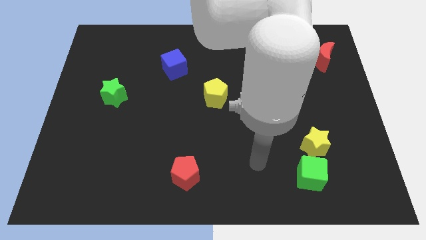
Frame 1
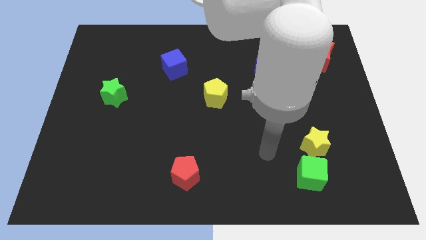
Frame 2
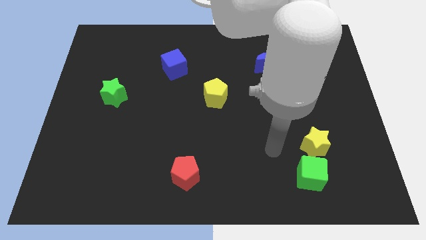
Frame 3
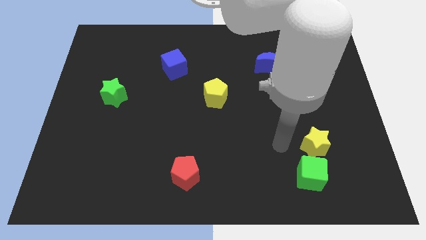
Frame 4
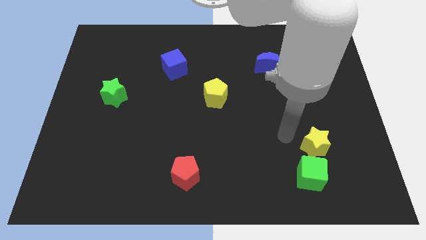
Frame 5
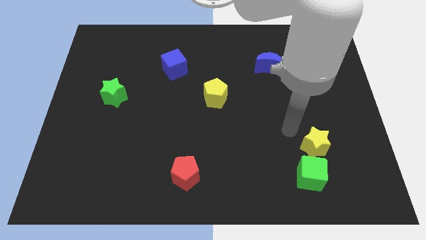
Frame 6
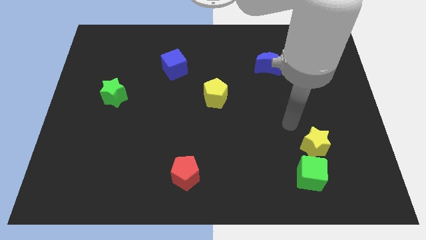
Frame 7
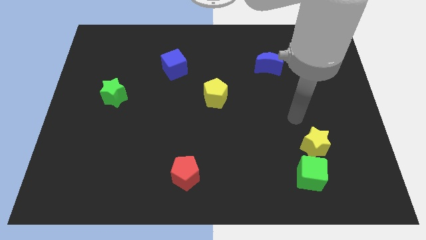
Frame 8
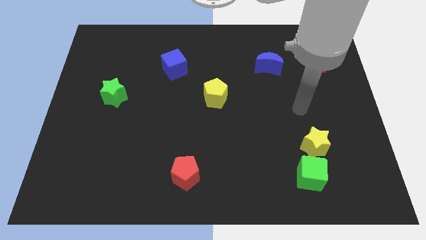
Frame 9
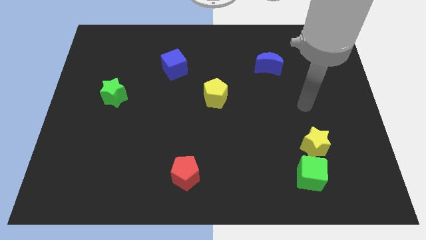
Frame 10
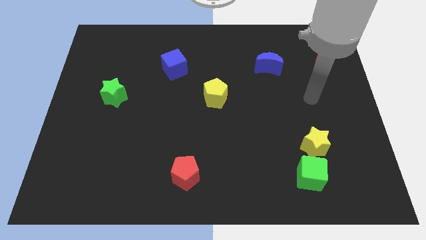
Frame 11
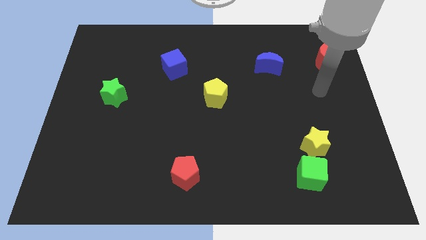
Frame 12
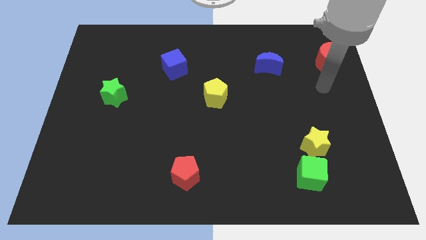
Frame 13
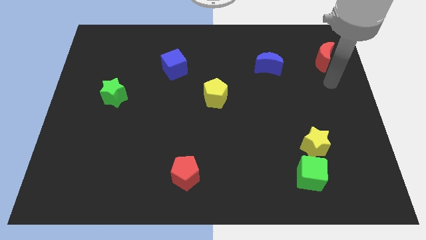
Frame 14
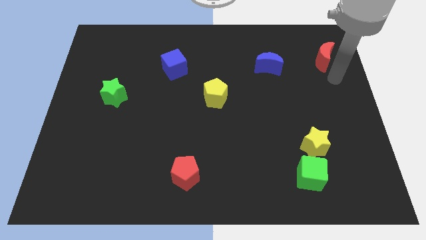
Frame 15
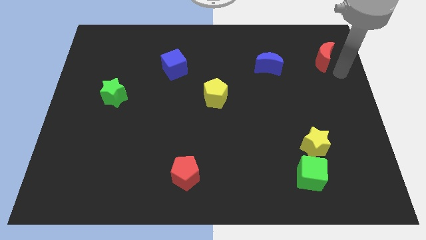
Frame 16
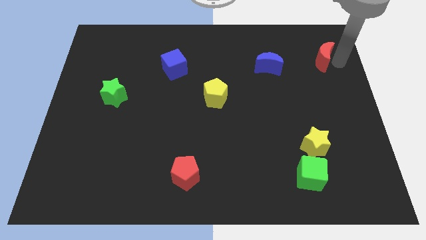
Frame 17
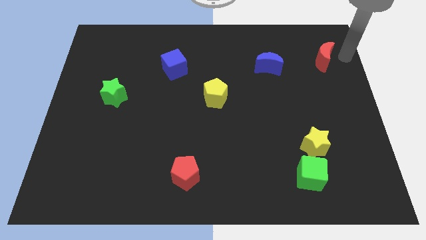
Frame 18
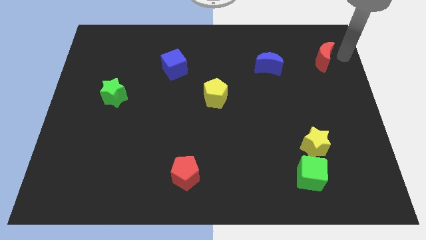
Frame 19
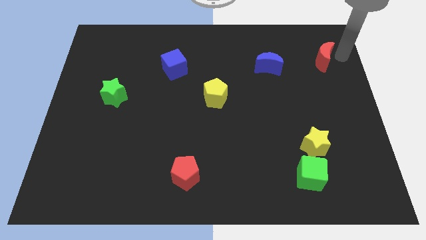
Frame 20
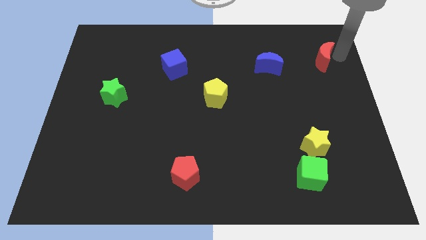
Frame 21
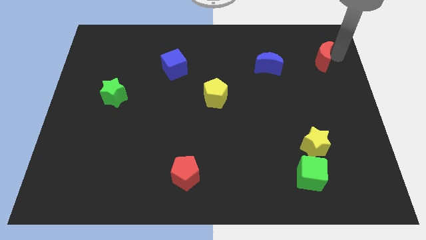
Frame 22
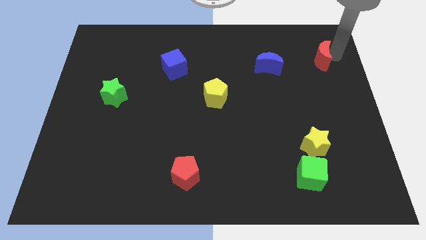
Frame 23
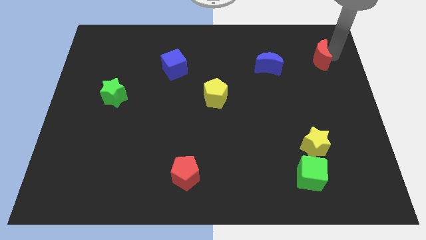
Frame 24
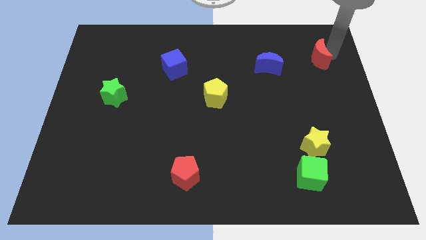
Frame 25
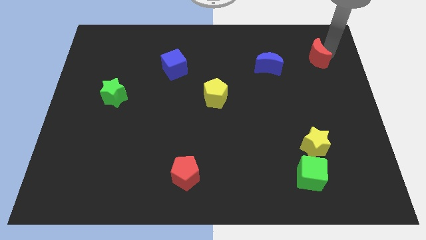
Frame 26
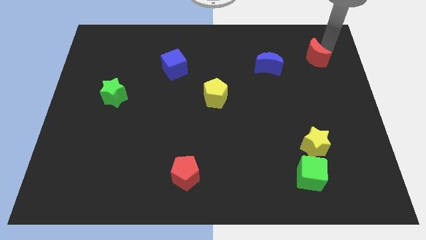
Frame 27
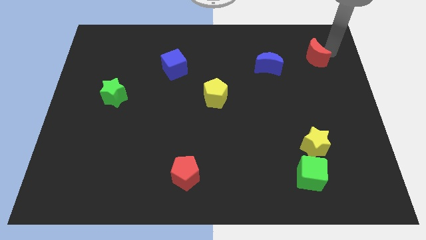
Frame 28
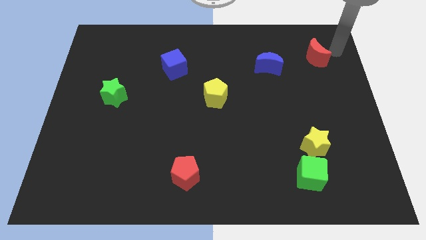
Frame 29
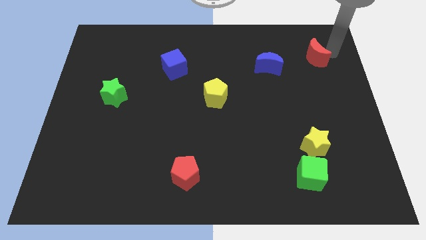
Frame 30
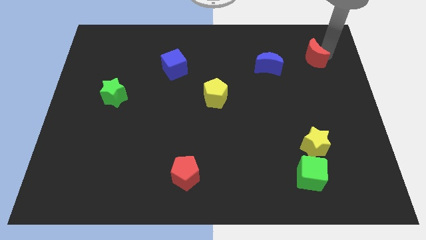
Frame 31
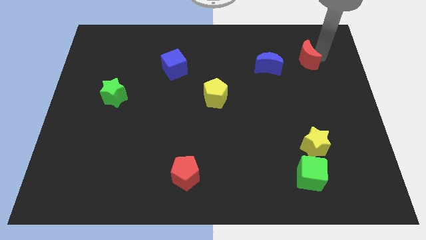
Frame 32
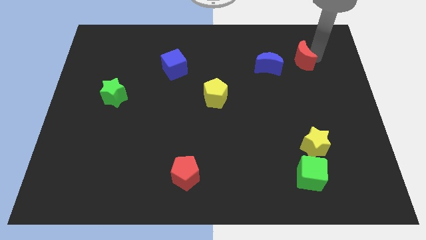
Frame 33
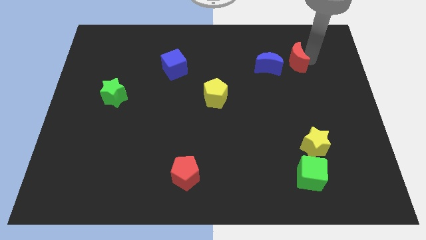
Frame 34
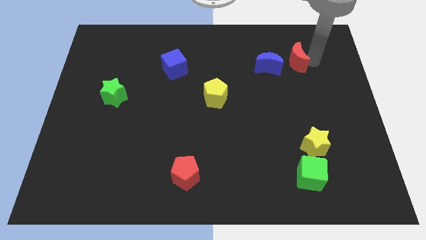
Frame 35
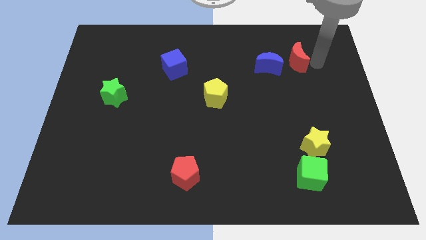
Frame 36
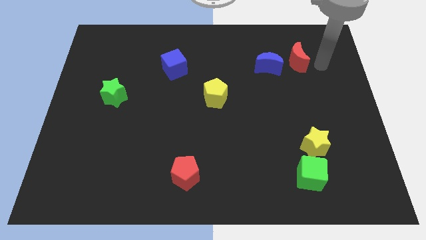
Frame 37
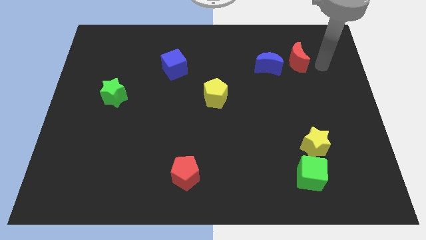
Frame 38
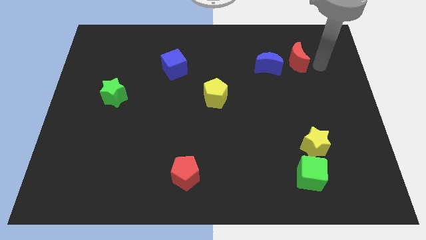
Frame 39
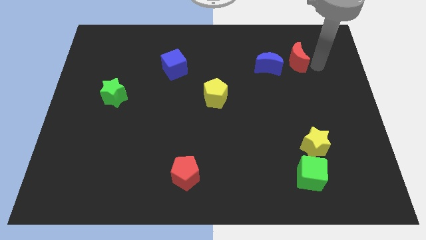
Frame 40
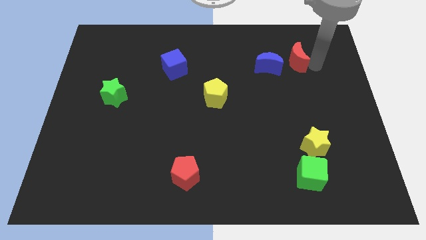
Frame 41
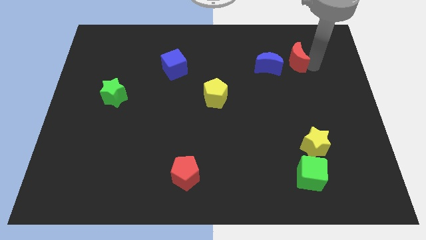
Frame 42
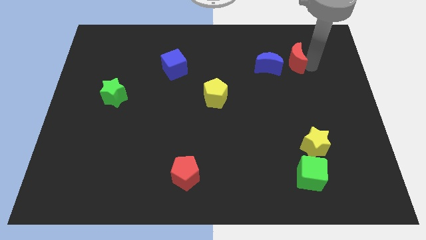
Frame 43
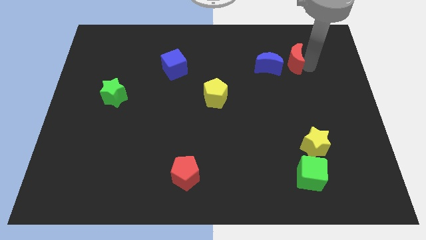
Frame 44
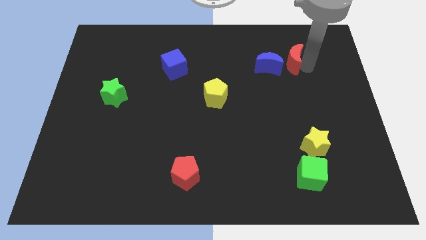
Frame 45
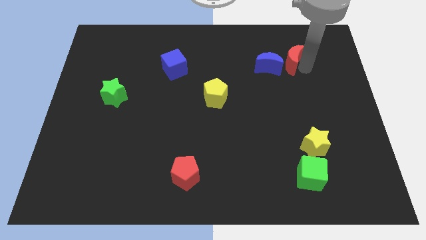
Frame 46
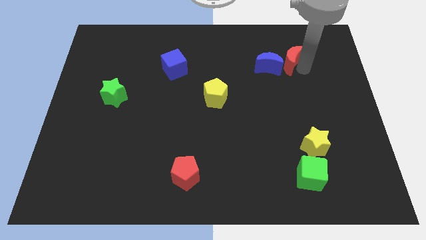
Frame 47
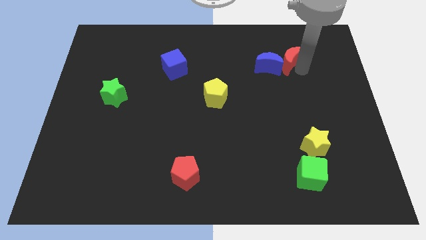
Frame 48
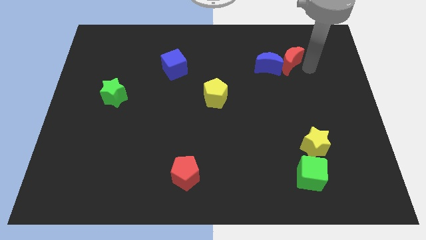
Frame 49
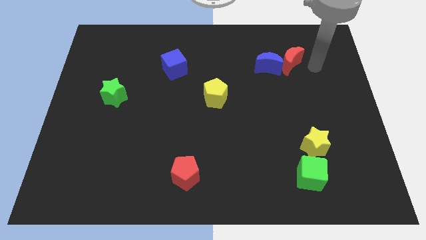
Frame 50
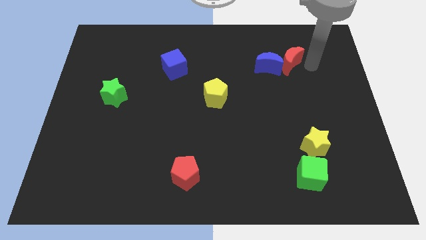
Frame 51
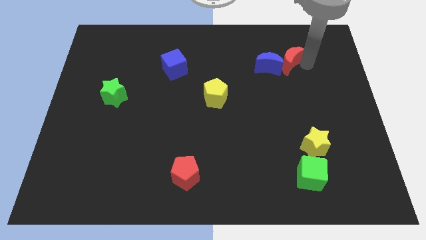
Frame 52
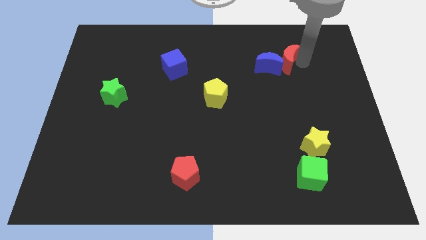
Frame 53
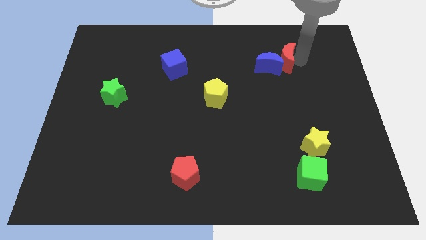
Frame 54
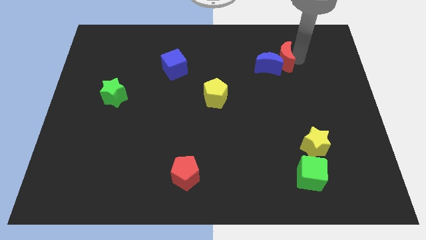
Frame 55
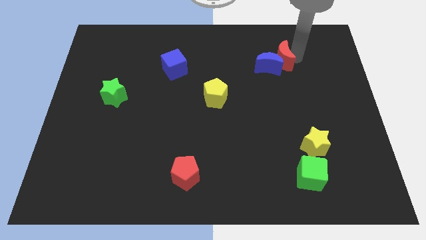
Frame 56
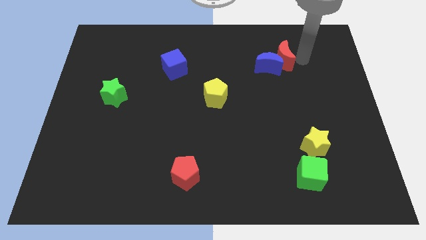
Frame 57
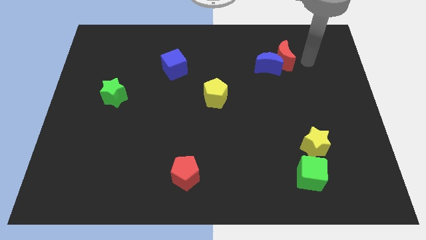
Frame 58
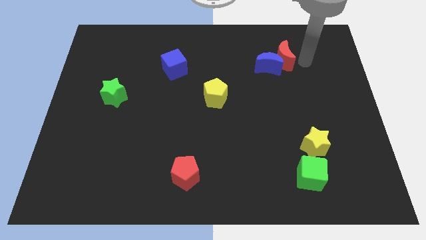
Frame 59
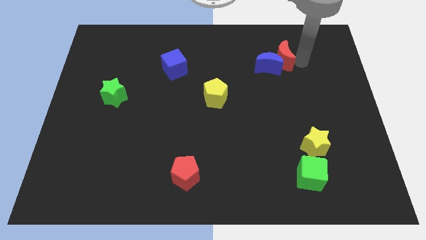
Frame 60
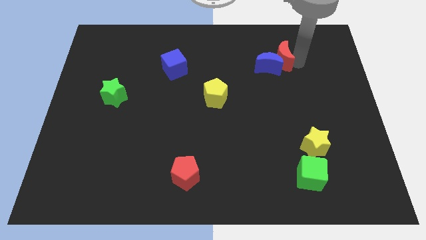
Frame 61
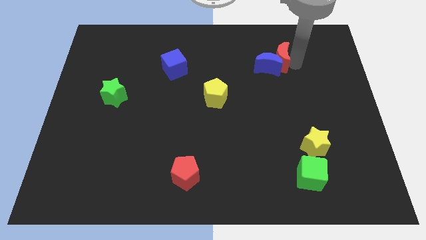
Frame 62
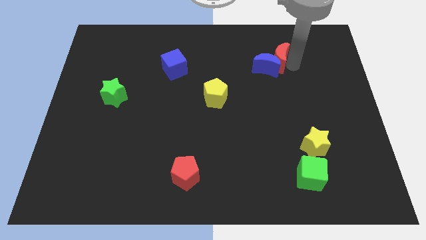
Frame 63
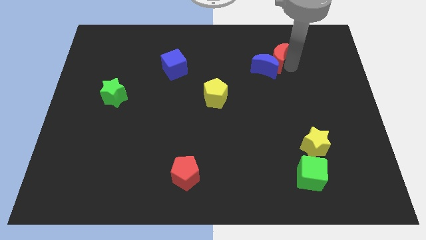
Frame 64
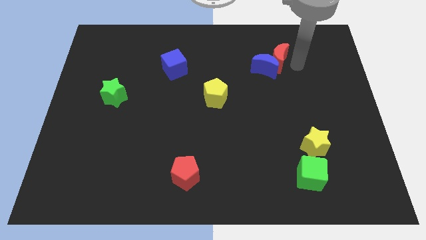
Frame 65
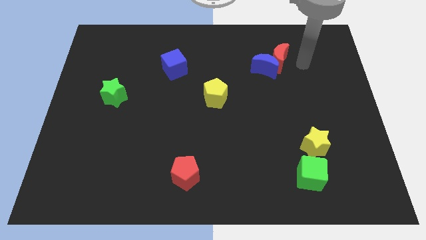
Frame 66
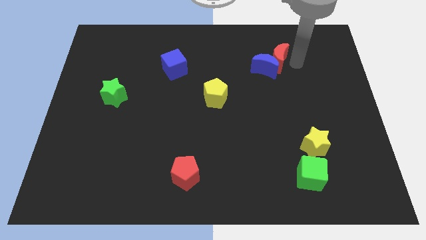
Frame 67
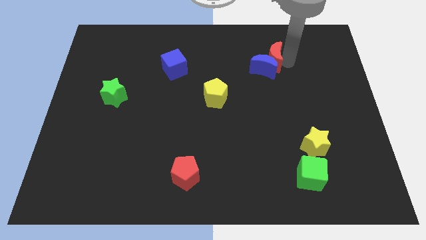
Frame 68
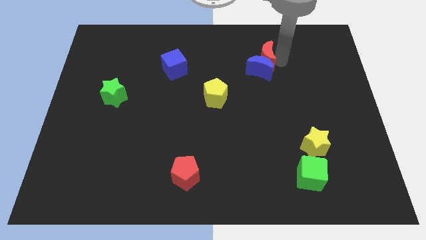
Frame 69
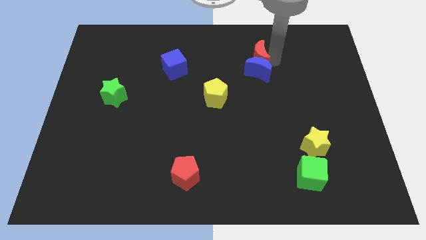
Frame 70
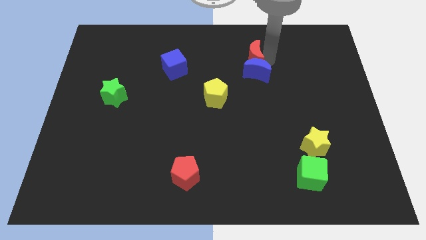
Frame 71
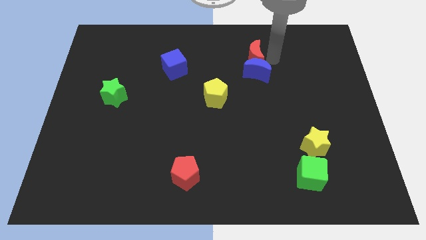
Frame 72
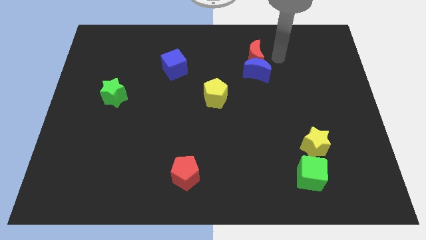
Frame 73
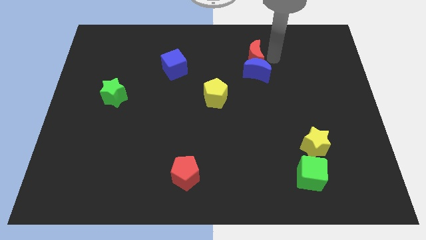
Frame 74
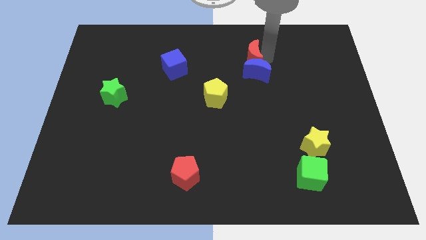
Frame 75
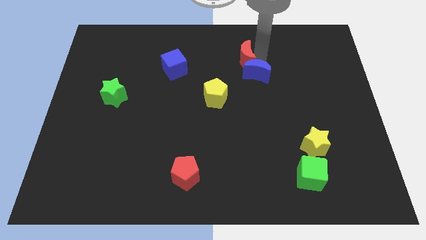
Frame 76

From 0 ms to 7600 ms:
slide the red moon to the left
